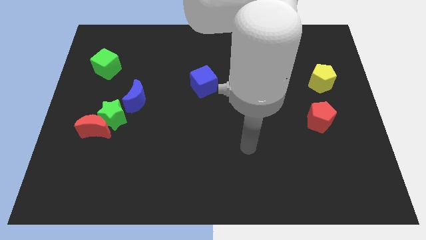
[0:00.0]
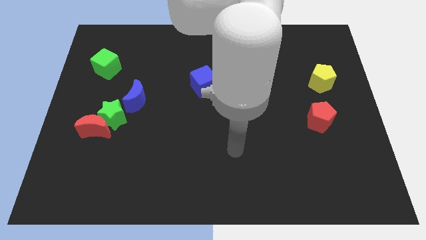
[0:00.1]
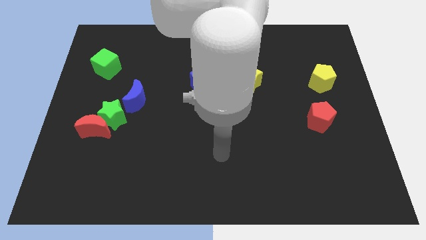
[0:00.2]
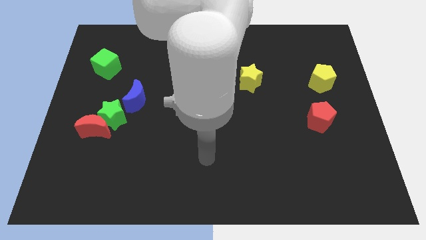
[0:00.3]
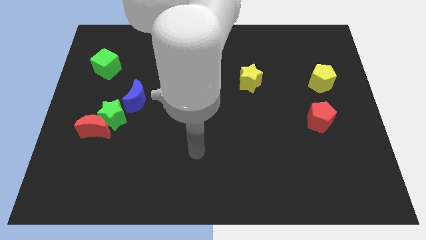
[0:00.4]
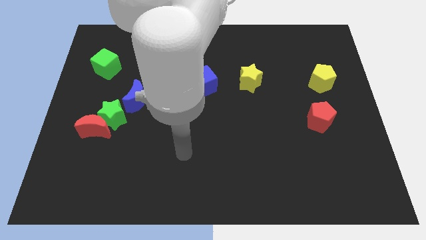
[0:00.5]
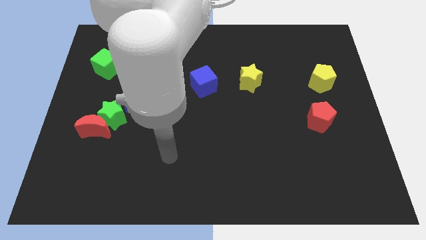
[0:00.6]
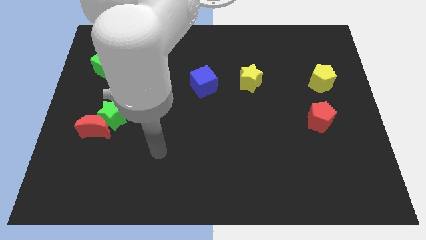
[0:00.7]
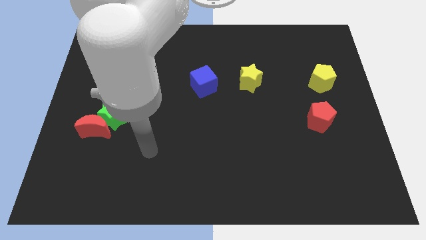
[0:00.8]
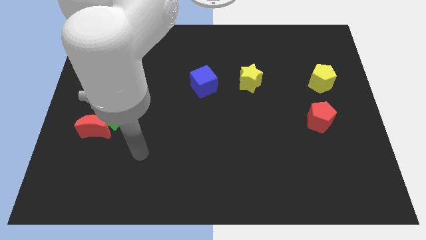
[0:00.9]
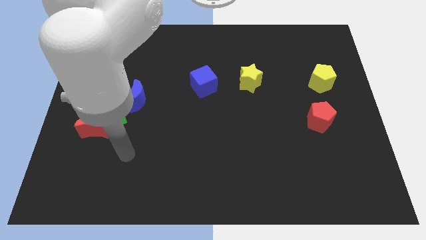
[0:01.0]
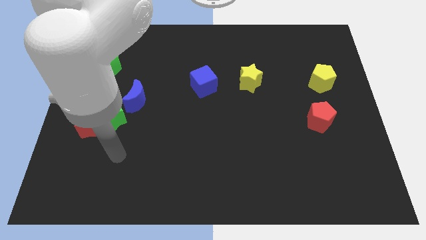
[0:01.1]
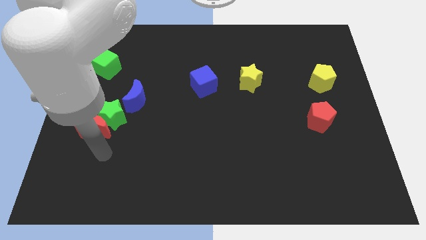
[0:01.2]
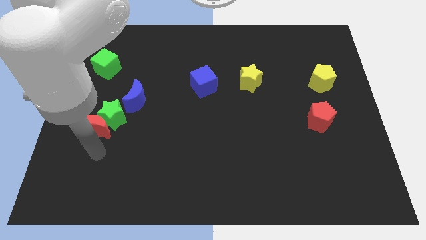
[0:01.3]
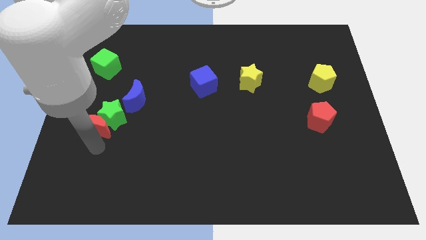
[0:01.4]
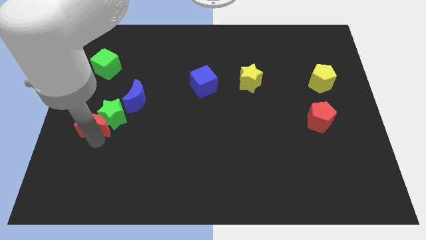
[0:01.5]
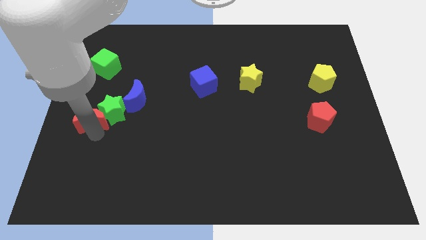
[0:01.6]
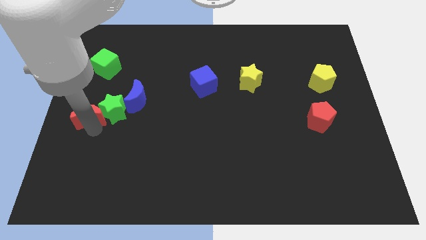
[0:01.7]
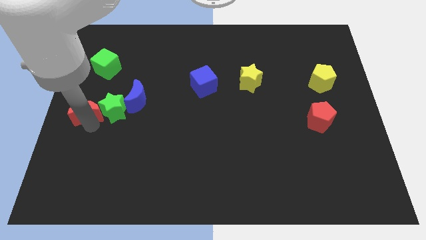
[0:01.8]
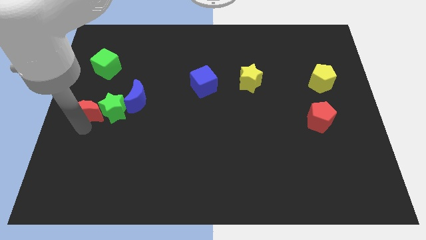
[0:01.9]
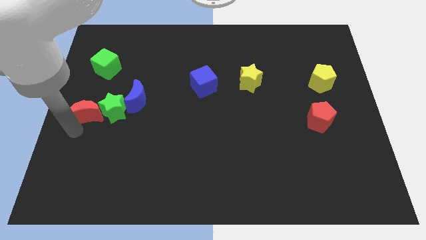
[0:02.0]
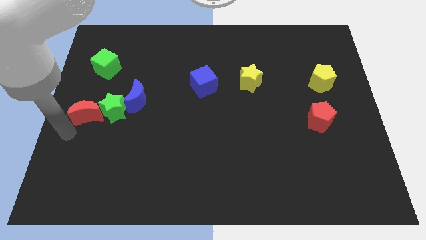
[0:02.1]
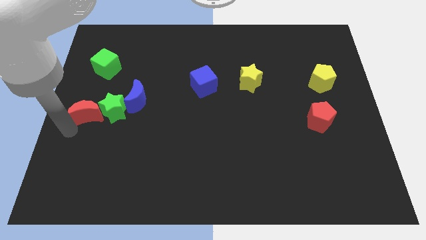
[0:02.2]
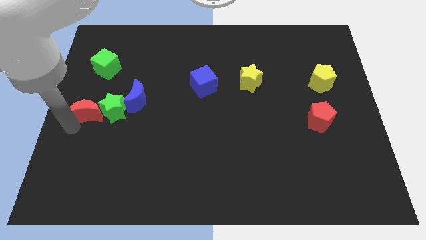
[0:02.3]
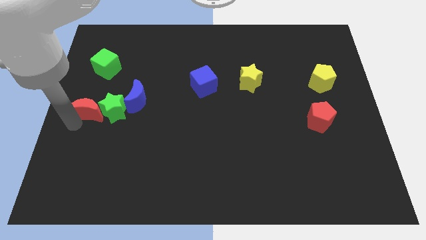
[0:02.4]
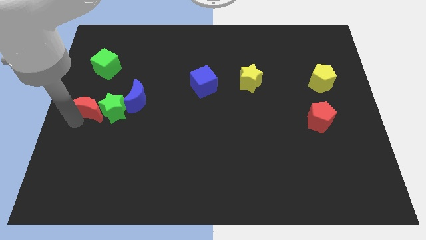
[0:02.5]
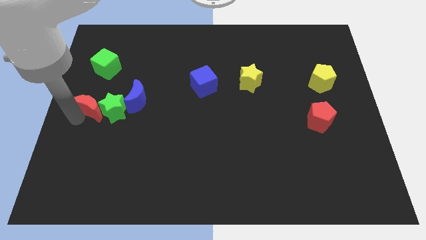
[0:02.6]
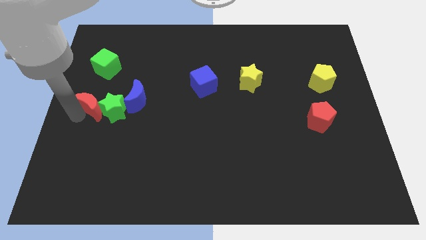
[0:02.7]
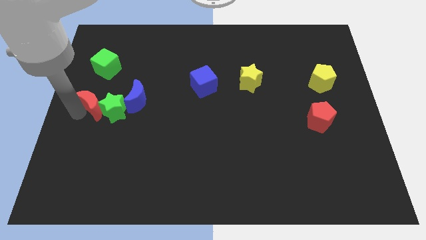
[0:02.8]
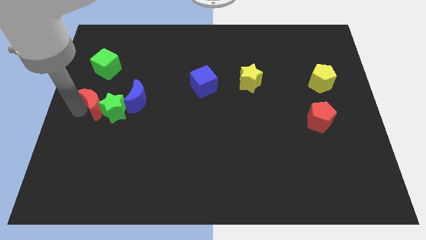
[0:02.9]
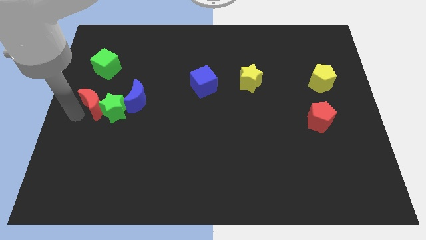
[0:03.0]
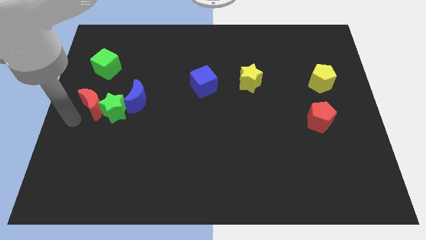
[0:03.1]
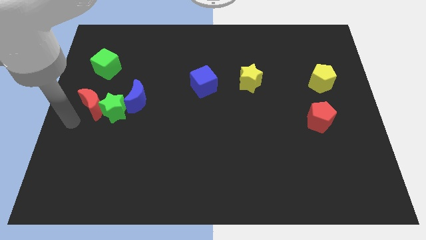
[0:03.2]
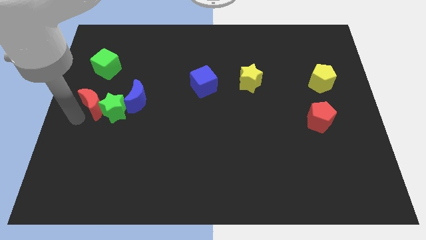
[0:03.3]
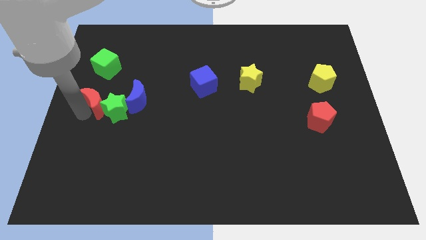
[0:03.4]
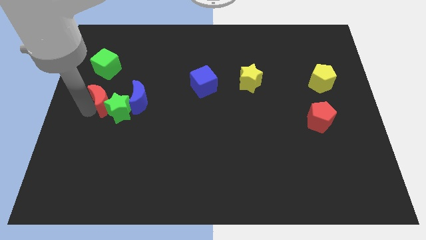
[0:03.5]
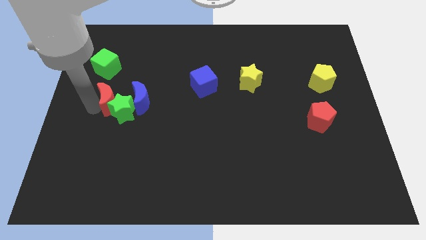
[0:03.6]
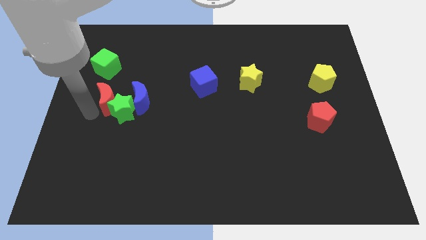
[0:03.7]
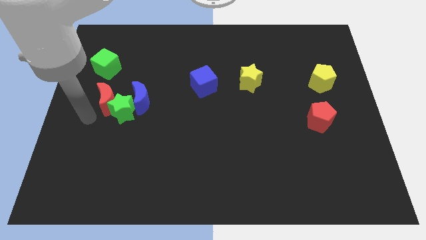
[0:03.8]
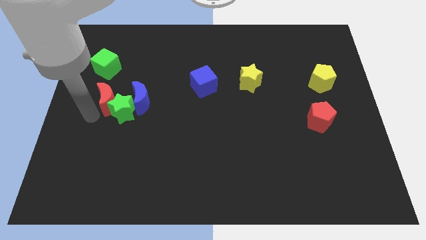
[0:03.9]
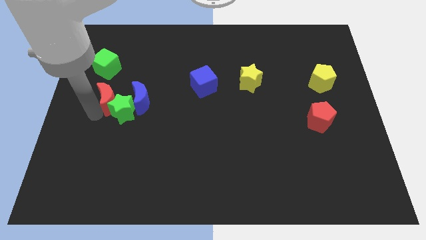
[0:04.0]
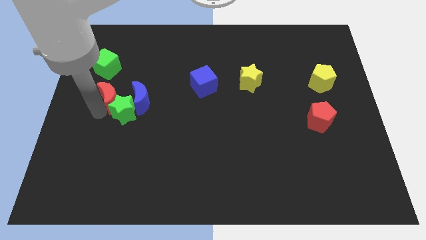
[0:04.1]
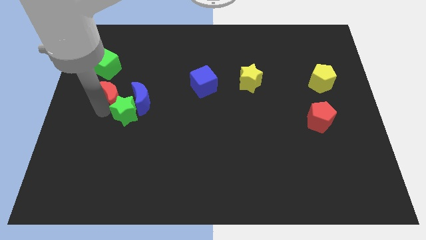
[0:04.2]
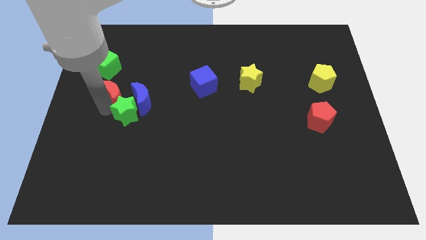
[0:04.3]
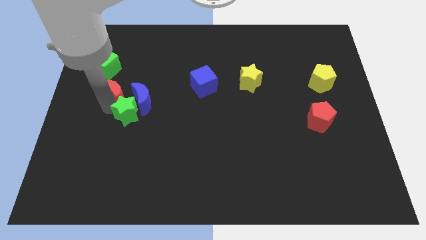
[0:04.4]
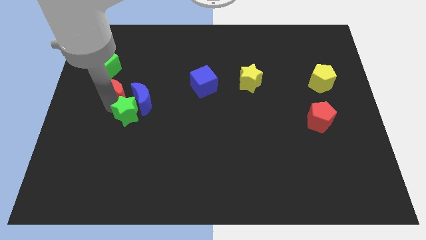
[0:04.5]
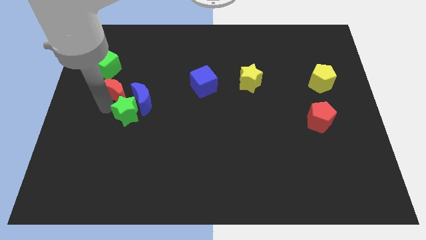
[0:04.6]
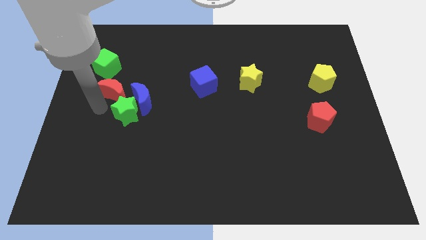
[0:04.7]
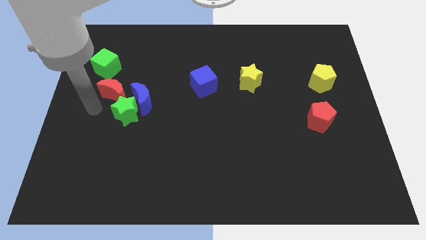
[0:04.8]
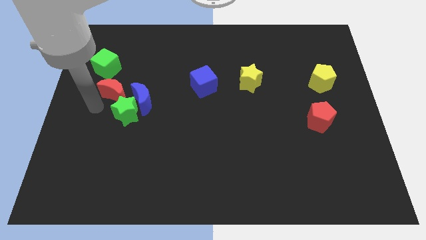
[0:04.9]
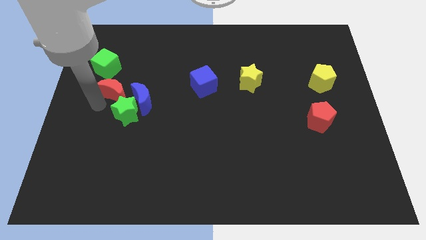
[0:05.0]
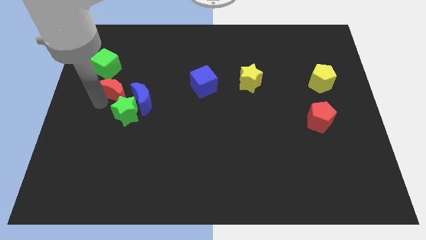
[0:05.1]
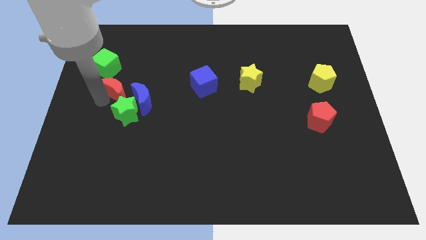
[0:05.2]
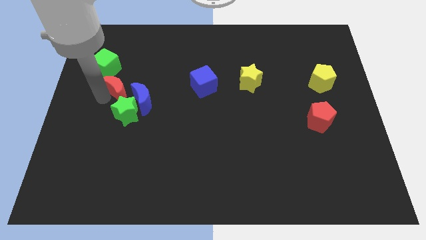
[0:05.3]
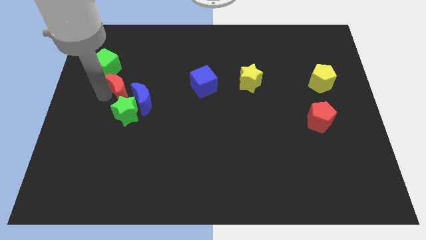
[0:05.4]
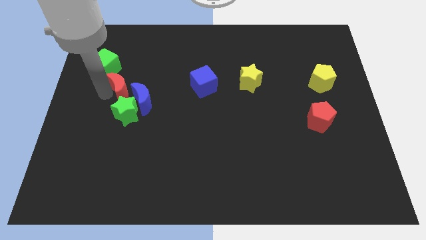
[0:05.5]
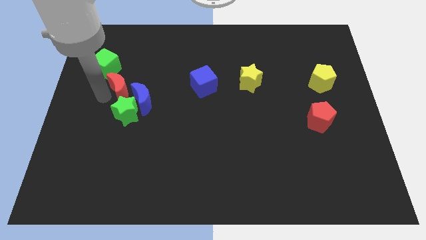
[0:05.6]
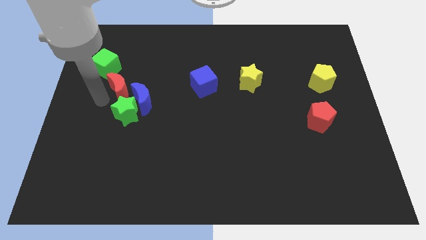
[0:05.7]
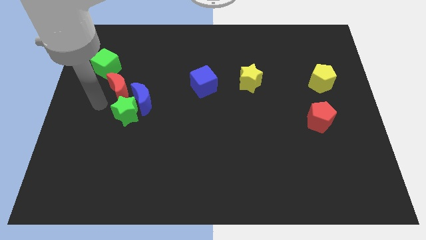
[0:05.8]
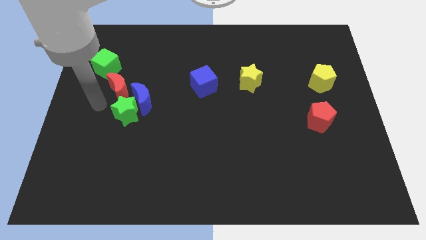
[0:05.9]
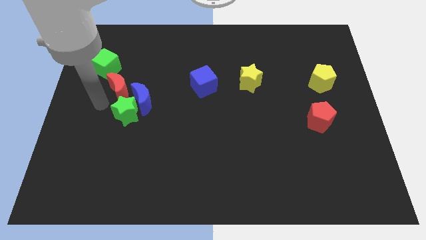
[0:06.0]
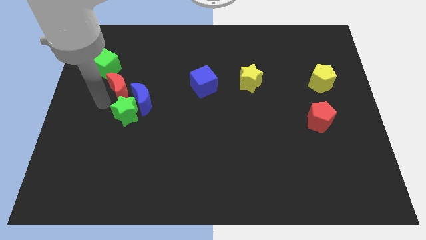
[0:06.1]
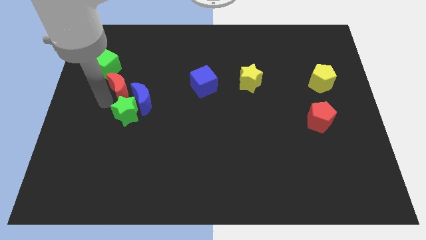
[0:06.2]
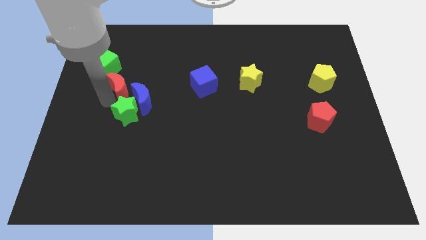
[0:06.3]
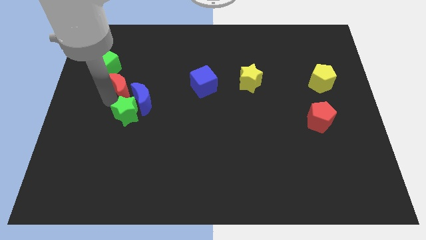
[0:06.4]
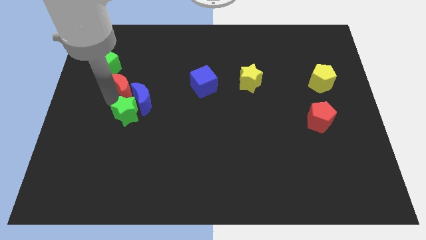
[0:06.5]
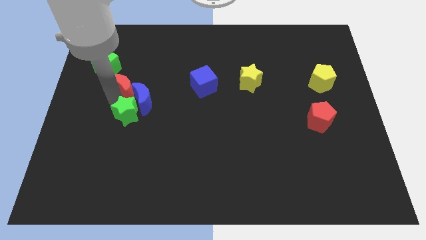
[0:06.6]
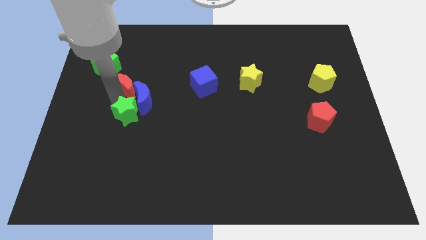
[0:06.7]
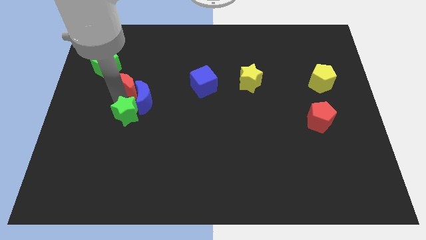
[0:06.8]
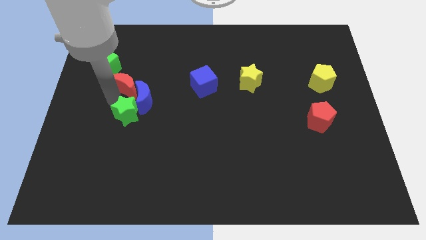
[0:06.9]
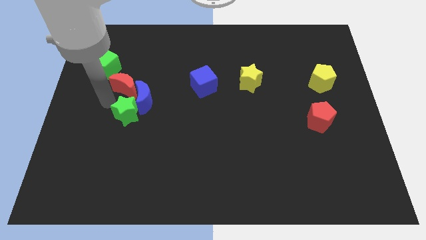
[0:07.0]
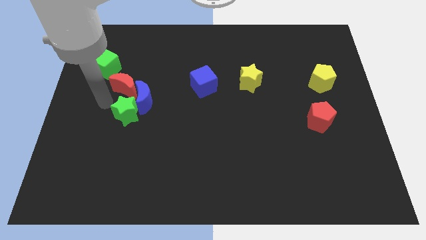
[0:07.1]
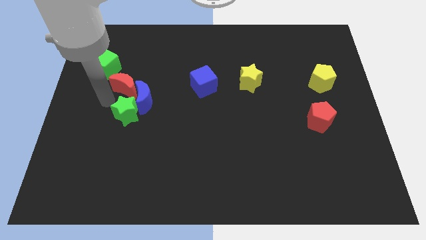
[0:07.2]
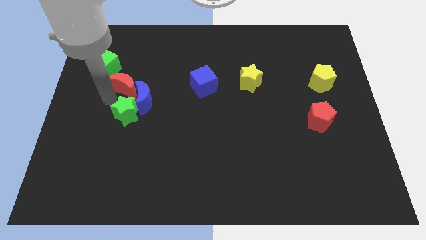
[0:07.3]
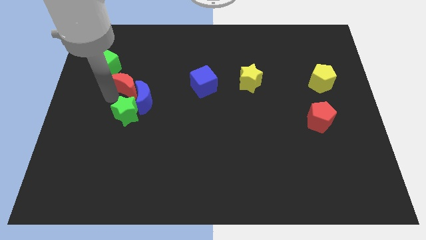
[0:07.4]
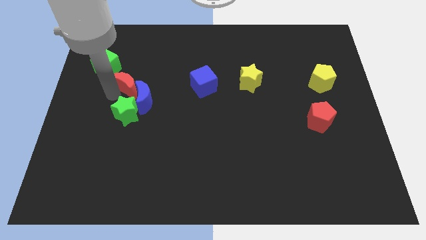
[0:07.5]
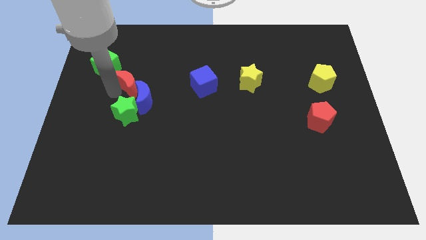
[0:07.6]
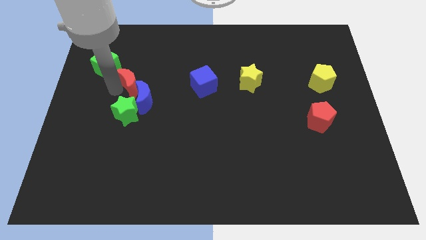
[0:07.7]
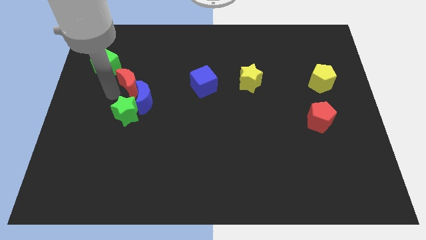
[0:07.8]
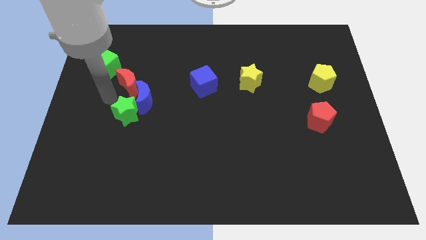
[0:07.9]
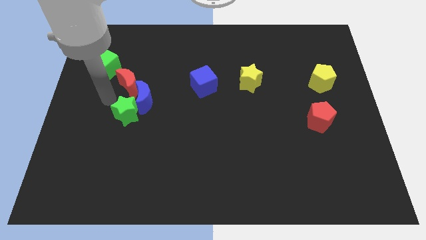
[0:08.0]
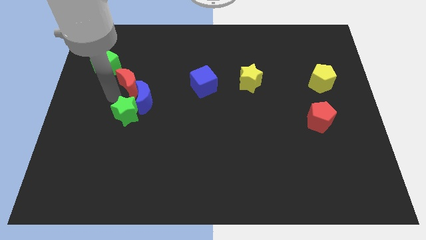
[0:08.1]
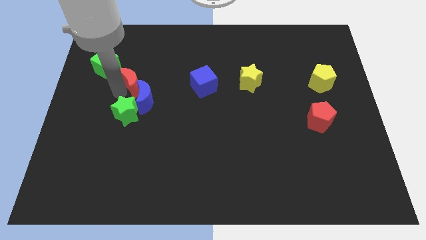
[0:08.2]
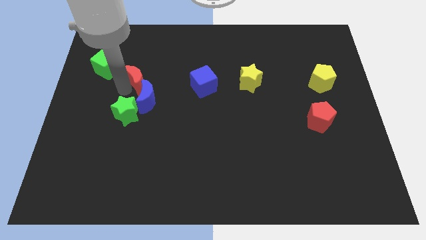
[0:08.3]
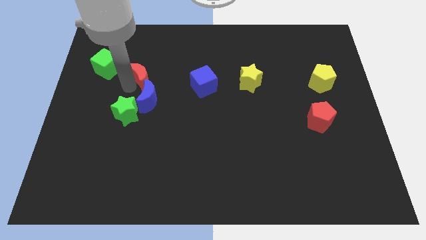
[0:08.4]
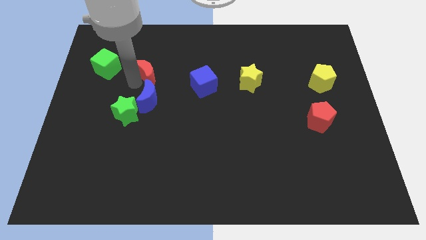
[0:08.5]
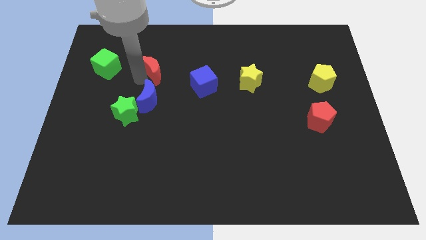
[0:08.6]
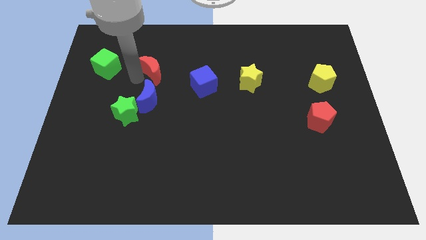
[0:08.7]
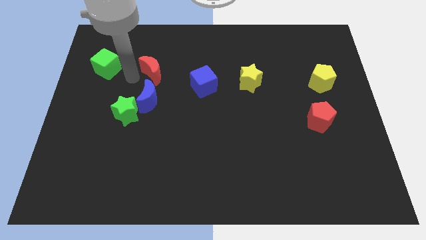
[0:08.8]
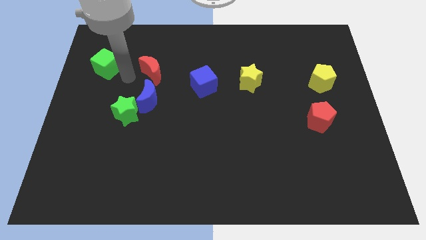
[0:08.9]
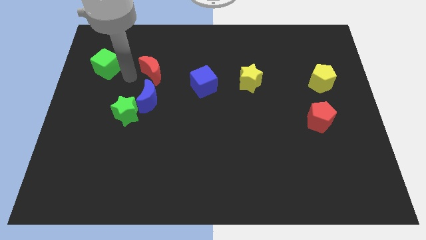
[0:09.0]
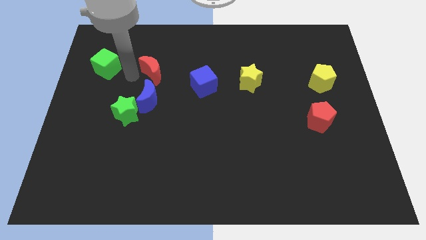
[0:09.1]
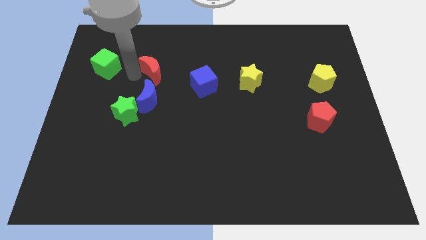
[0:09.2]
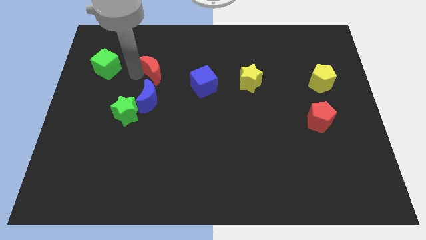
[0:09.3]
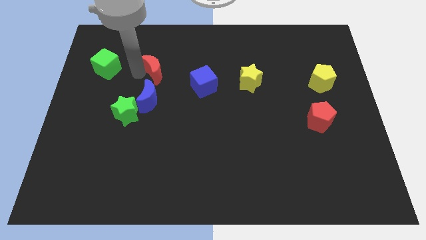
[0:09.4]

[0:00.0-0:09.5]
move the red moon upwards and then to the right
